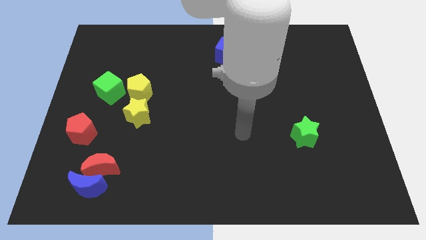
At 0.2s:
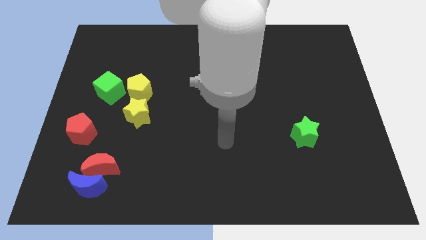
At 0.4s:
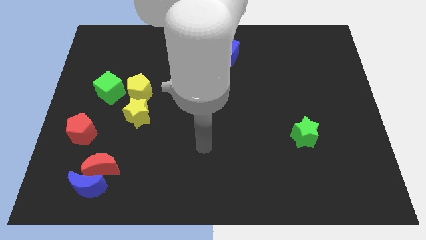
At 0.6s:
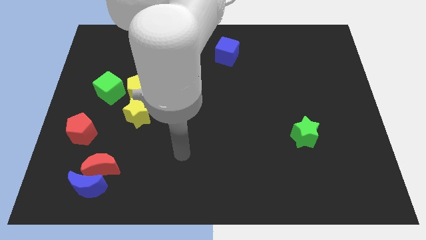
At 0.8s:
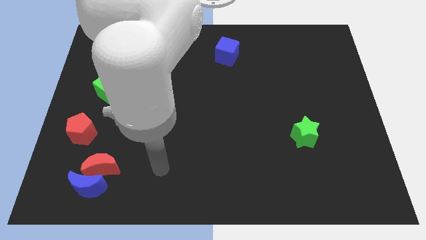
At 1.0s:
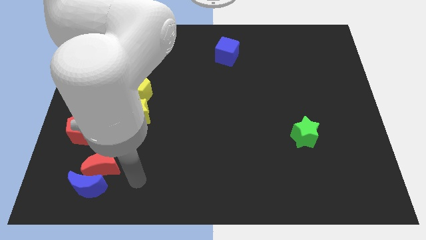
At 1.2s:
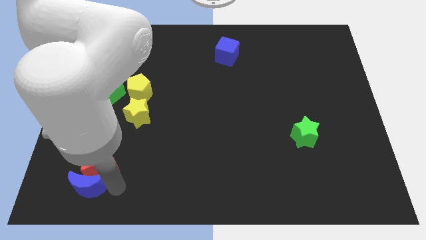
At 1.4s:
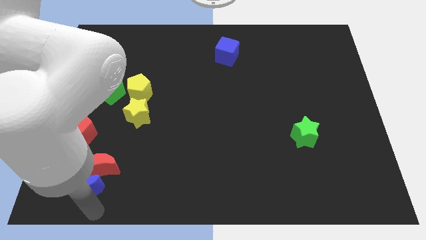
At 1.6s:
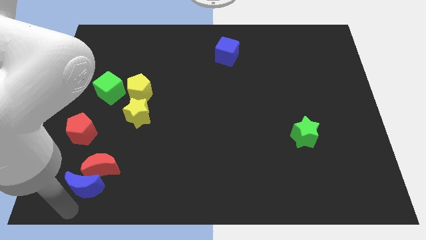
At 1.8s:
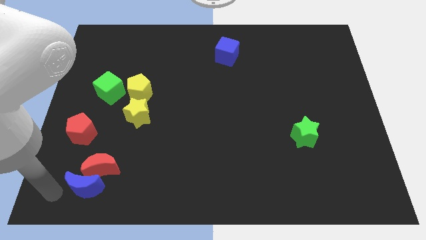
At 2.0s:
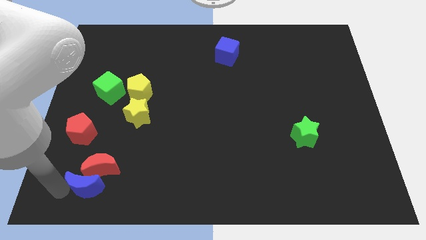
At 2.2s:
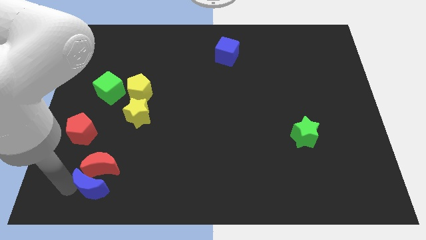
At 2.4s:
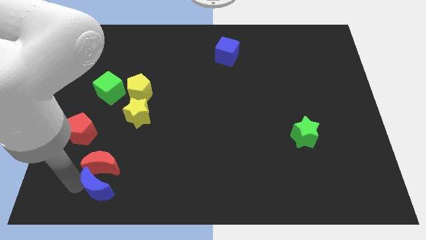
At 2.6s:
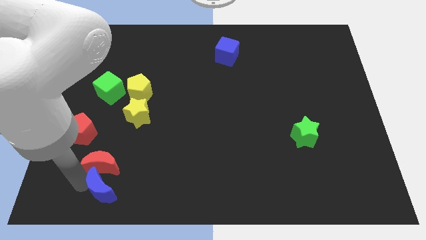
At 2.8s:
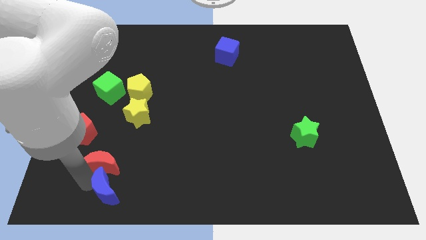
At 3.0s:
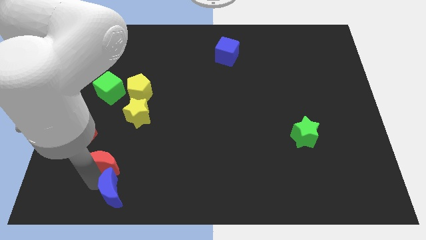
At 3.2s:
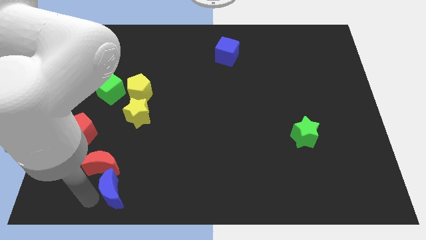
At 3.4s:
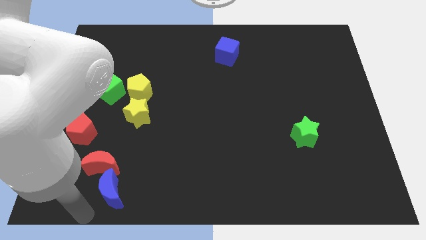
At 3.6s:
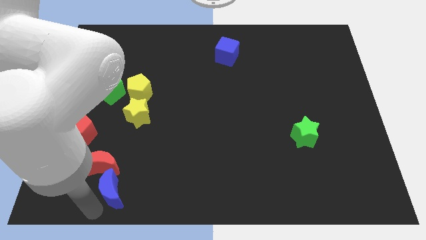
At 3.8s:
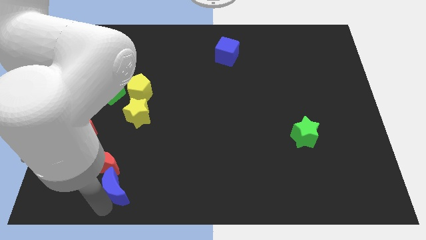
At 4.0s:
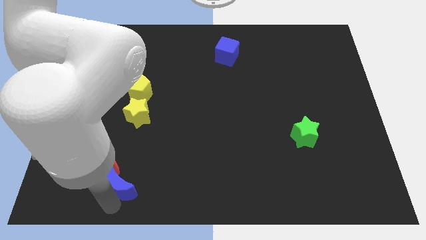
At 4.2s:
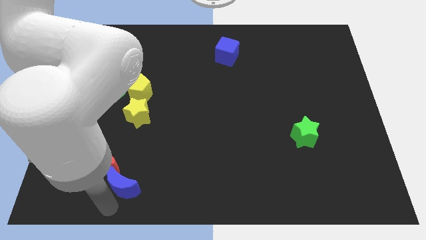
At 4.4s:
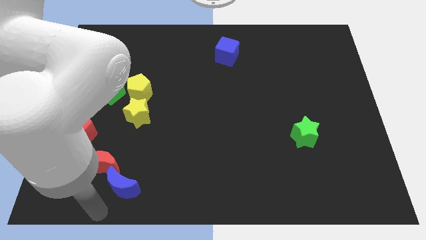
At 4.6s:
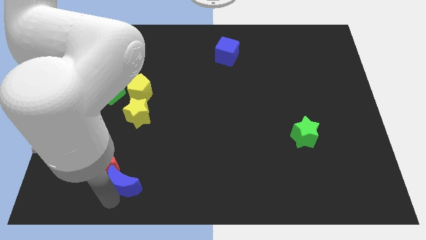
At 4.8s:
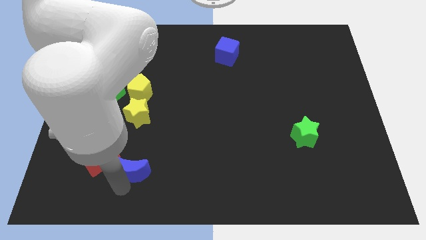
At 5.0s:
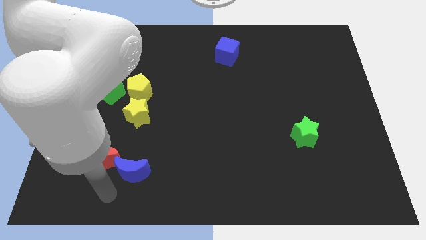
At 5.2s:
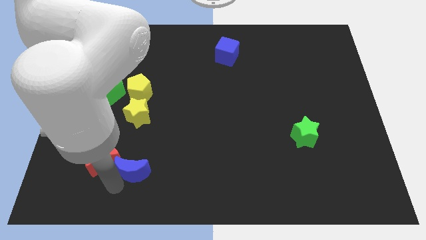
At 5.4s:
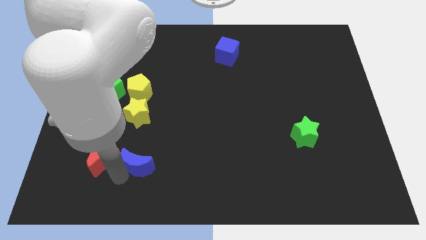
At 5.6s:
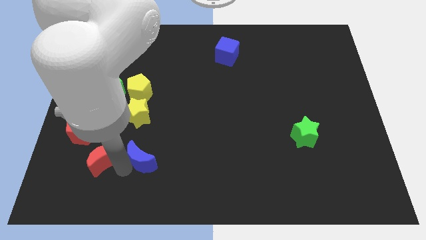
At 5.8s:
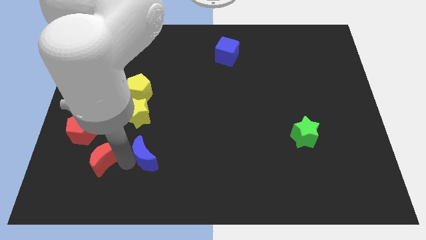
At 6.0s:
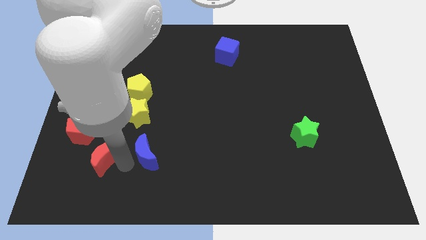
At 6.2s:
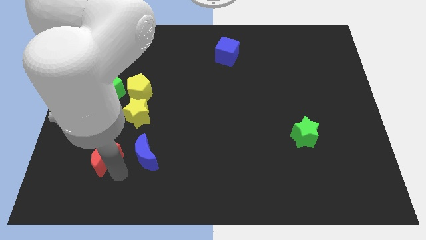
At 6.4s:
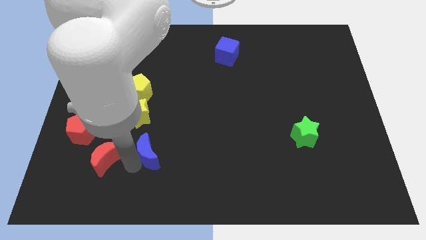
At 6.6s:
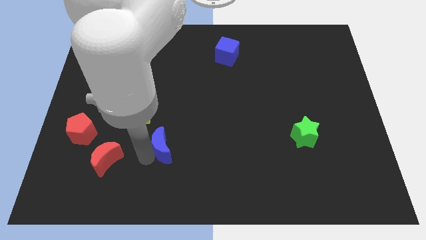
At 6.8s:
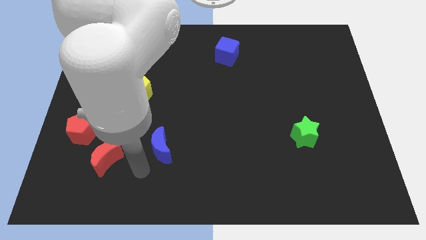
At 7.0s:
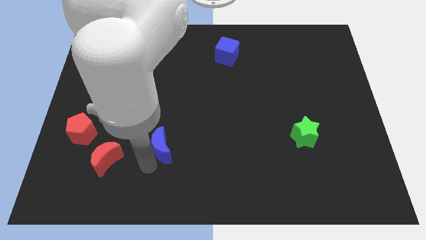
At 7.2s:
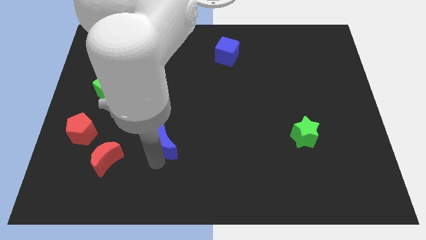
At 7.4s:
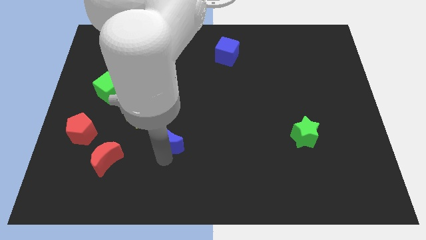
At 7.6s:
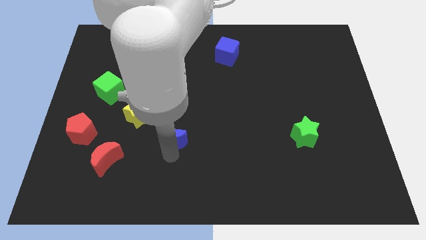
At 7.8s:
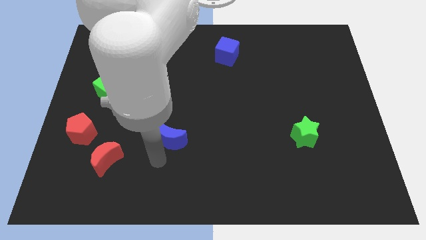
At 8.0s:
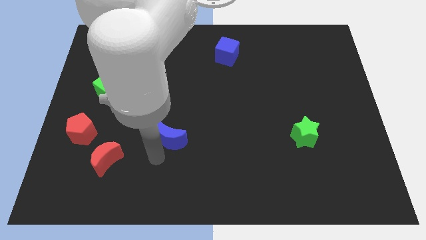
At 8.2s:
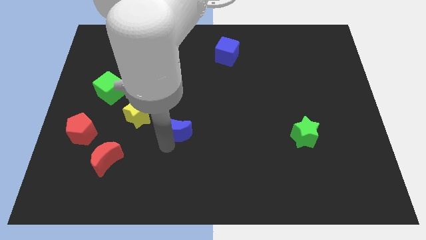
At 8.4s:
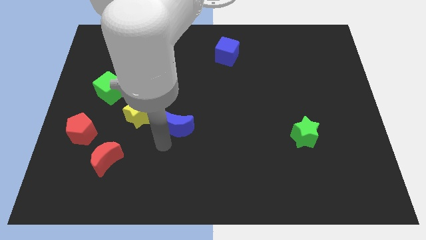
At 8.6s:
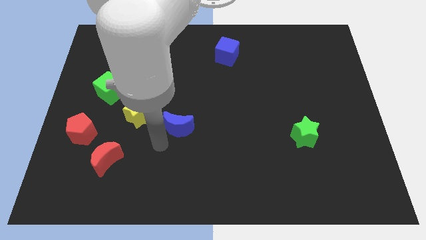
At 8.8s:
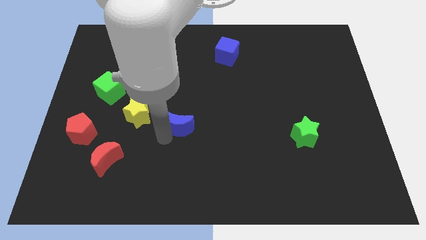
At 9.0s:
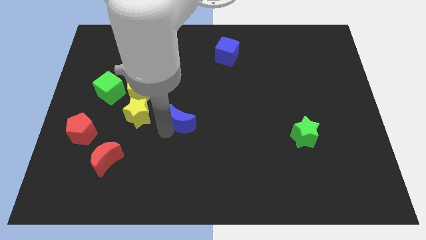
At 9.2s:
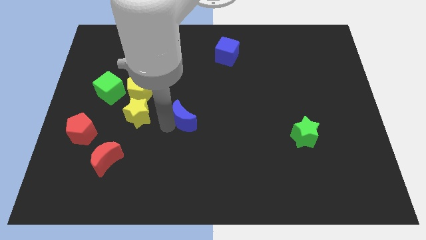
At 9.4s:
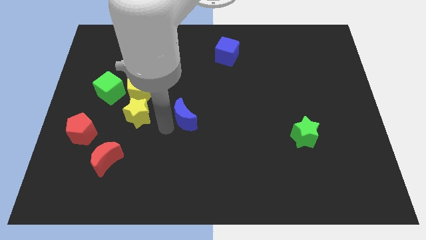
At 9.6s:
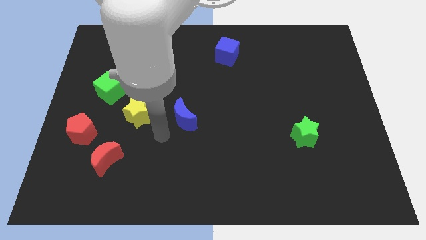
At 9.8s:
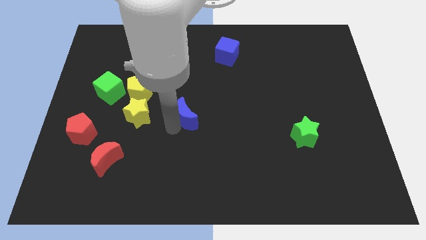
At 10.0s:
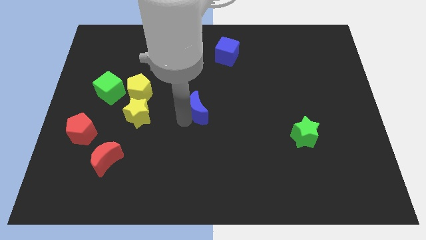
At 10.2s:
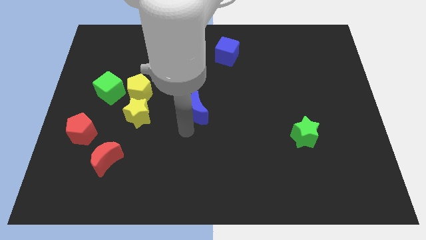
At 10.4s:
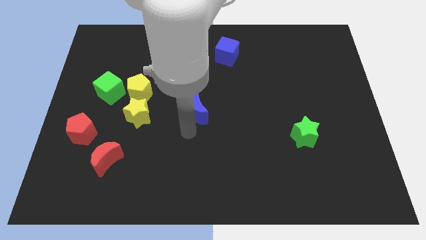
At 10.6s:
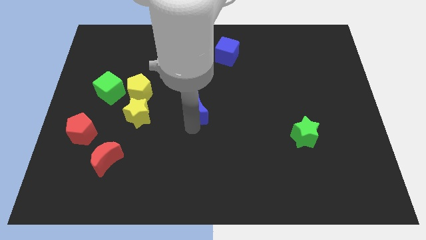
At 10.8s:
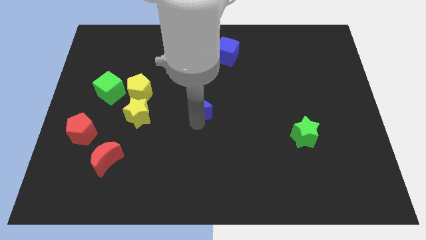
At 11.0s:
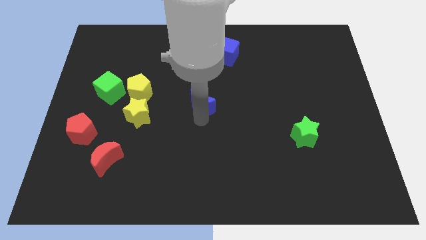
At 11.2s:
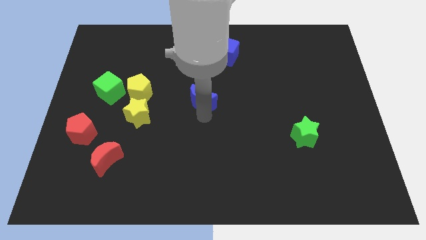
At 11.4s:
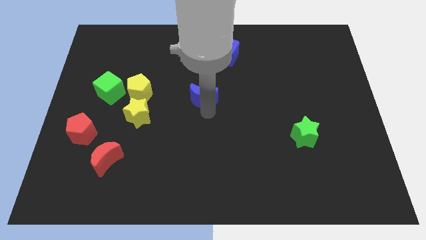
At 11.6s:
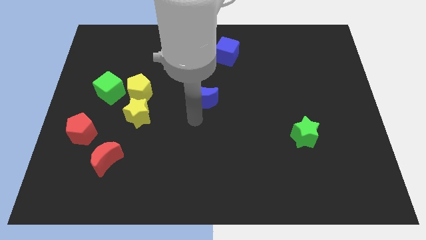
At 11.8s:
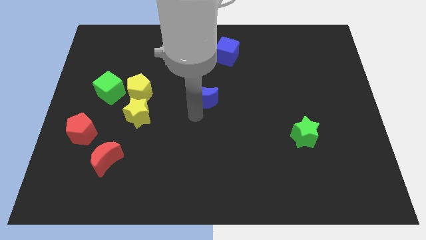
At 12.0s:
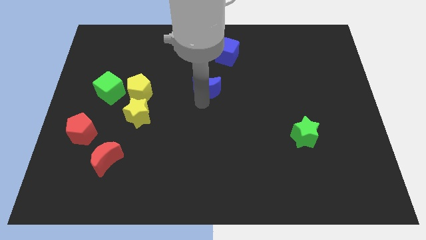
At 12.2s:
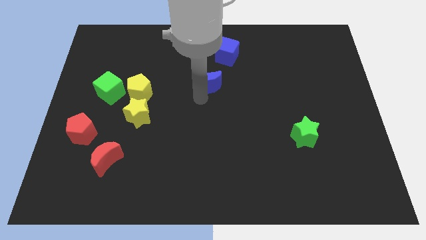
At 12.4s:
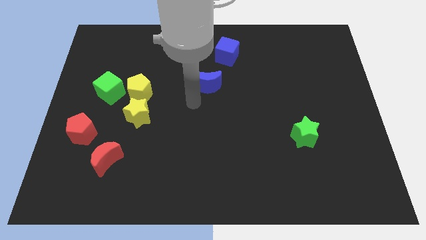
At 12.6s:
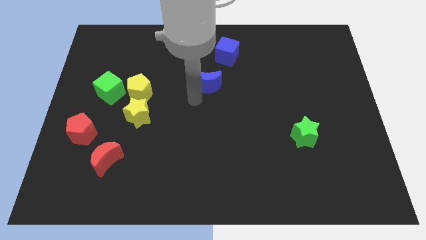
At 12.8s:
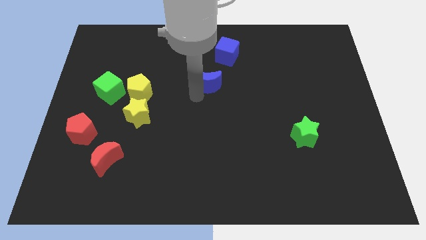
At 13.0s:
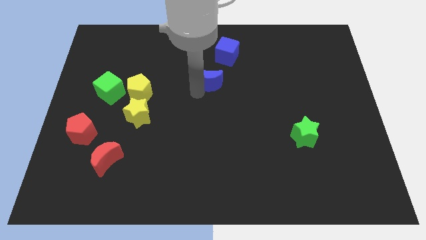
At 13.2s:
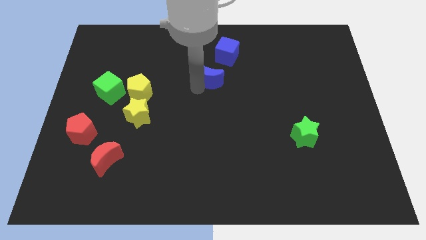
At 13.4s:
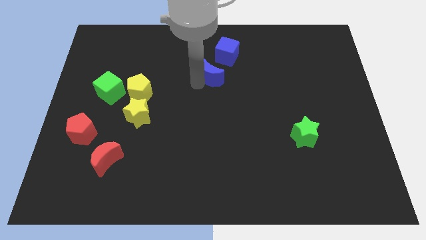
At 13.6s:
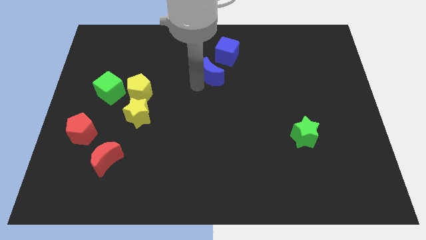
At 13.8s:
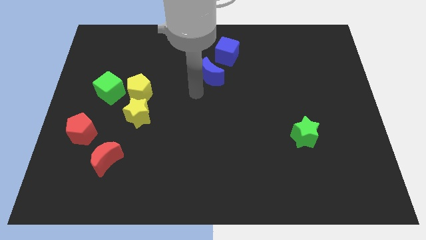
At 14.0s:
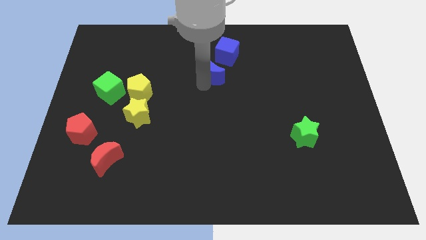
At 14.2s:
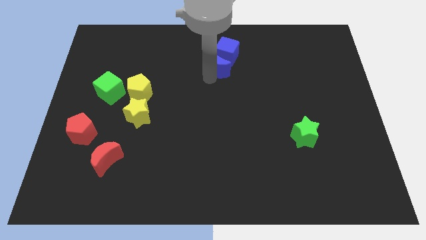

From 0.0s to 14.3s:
push the blue moon next to the blue cube
